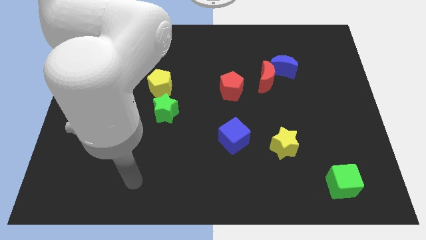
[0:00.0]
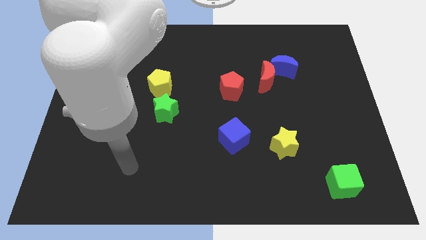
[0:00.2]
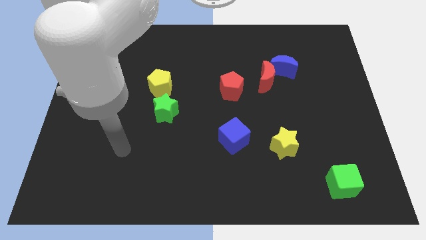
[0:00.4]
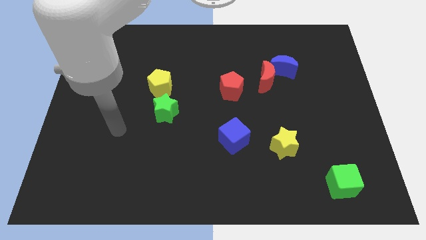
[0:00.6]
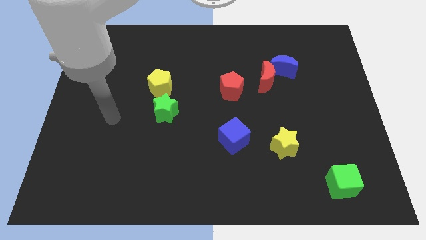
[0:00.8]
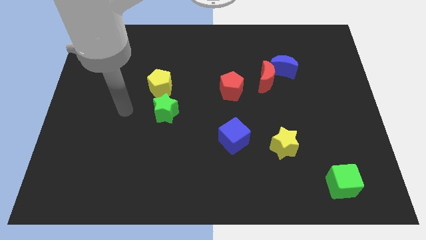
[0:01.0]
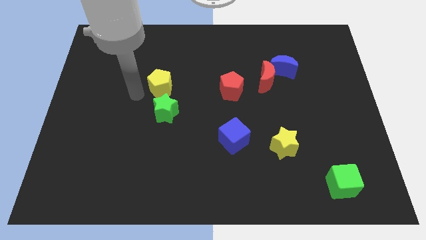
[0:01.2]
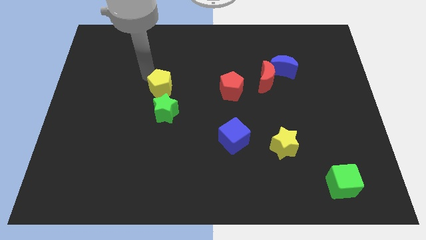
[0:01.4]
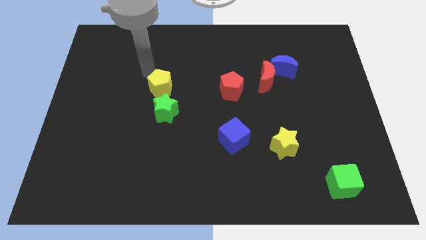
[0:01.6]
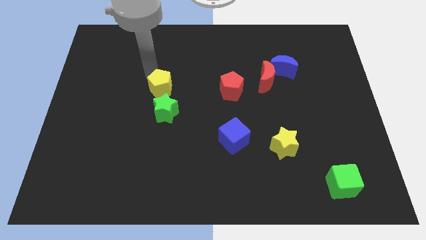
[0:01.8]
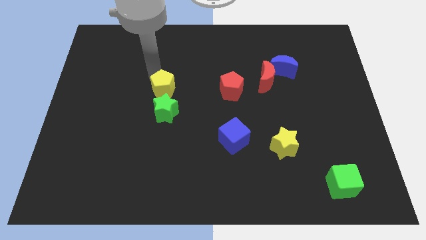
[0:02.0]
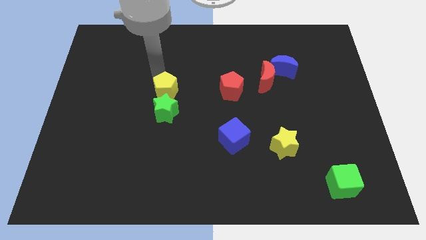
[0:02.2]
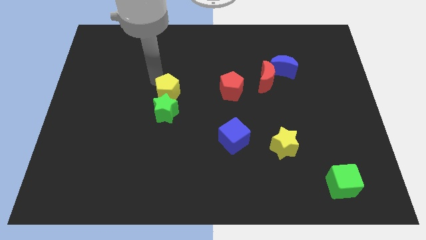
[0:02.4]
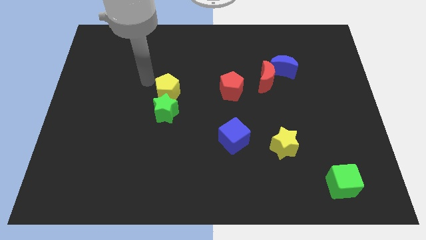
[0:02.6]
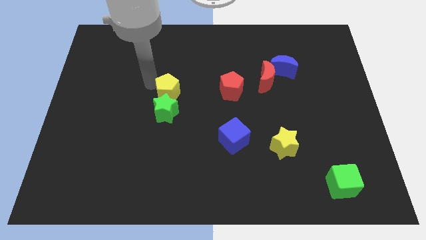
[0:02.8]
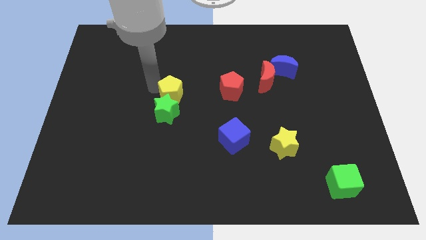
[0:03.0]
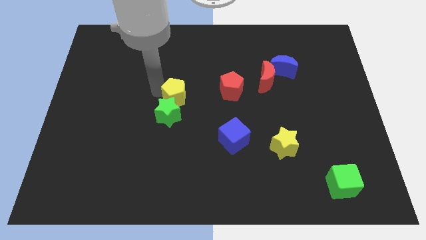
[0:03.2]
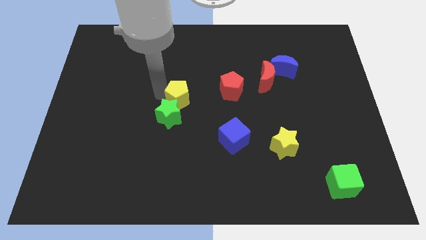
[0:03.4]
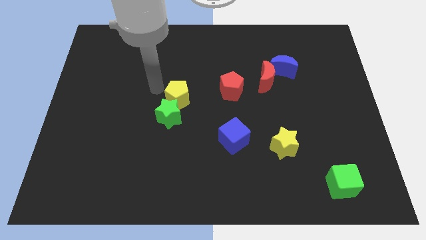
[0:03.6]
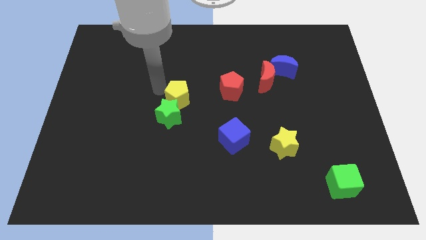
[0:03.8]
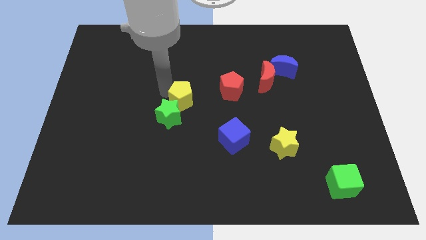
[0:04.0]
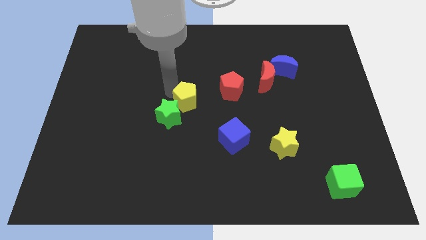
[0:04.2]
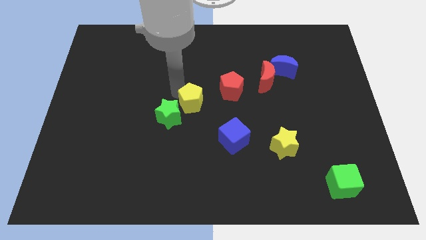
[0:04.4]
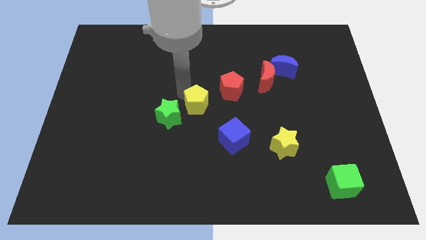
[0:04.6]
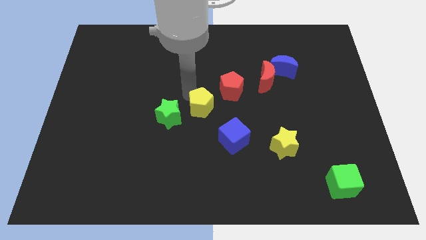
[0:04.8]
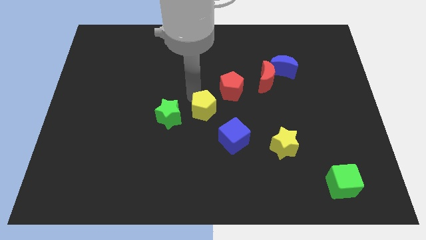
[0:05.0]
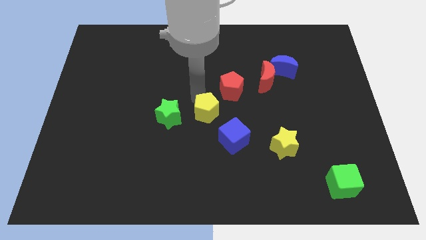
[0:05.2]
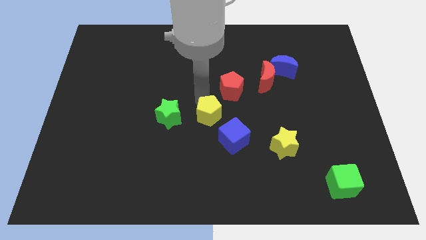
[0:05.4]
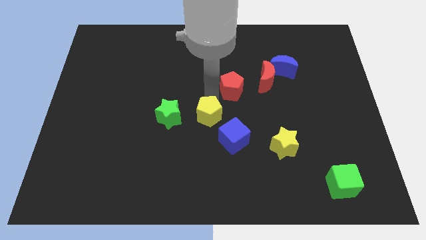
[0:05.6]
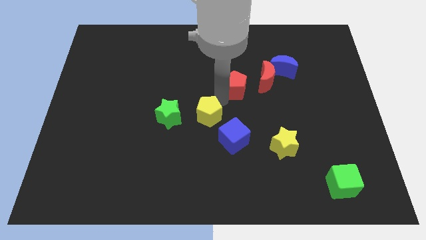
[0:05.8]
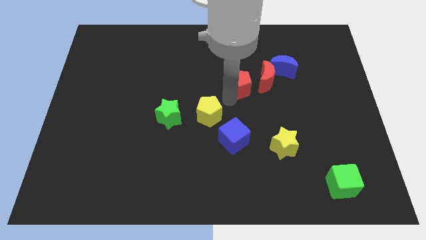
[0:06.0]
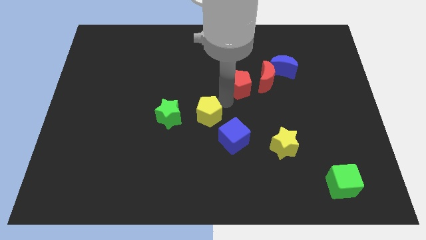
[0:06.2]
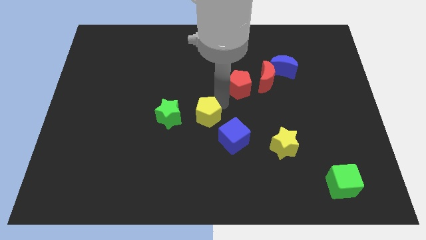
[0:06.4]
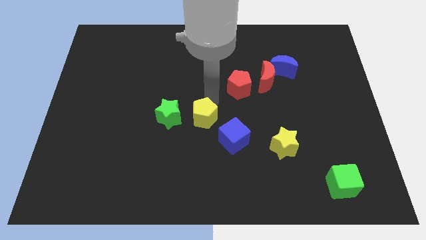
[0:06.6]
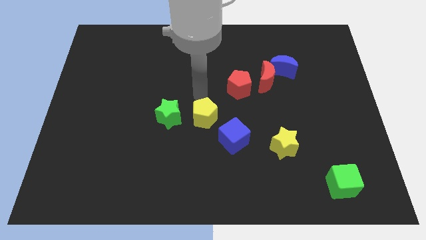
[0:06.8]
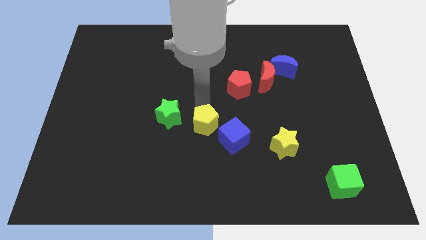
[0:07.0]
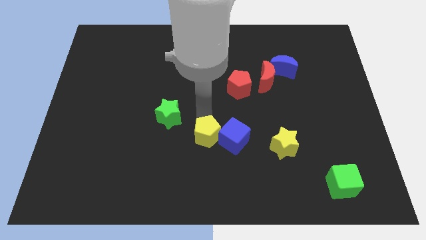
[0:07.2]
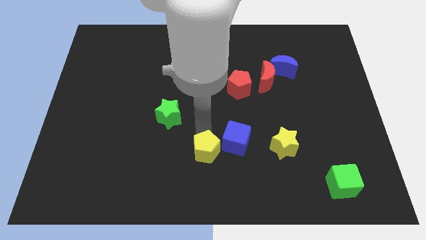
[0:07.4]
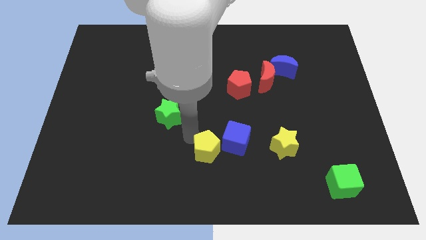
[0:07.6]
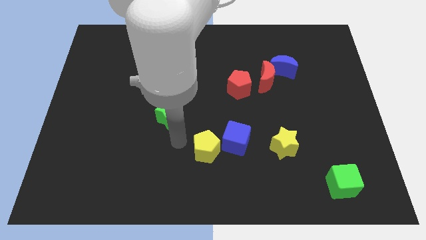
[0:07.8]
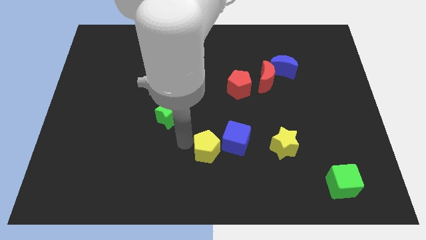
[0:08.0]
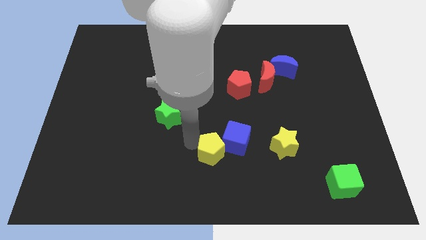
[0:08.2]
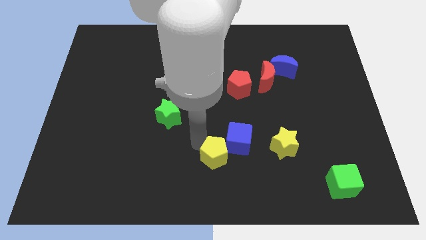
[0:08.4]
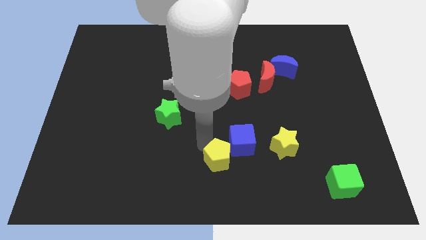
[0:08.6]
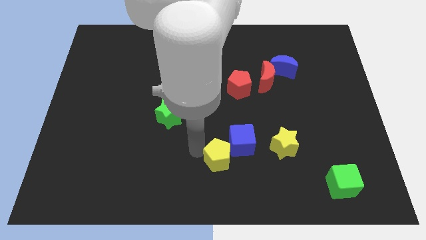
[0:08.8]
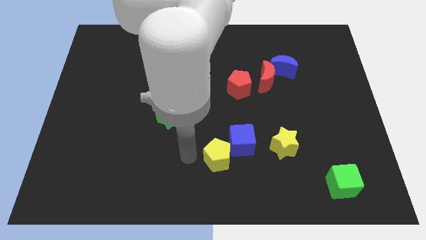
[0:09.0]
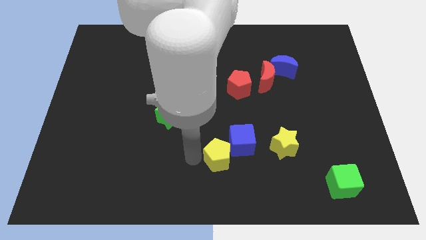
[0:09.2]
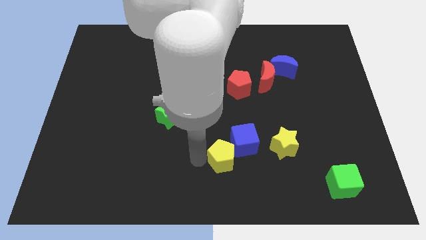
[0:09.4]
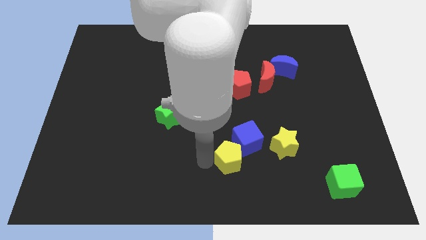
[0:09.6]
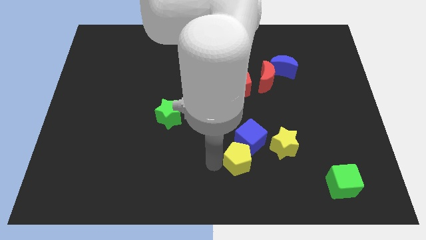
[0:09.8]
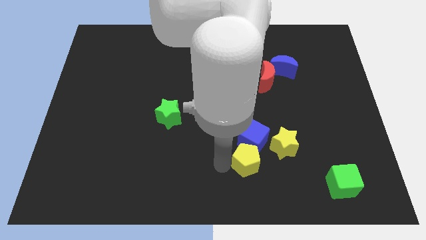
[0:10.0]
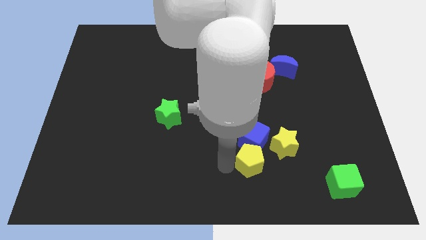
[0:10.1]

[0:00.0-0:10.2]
slide the yellow pentagon to the bottom right side of the blue cube

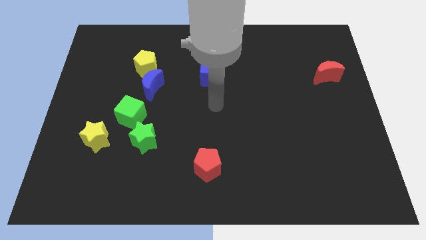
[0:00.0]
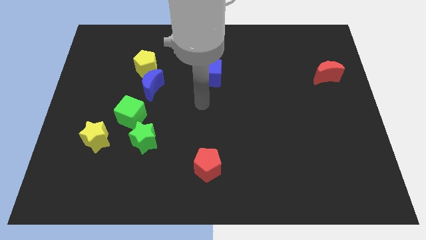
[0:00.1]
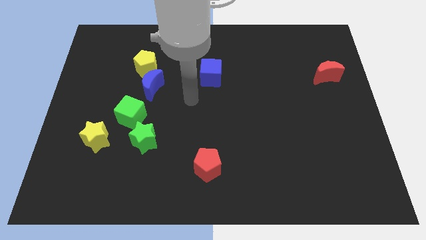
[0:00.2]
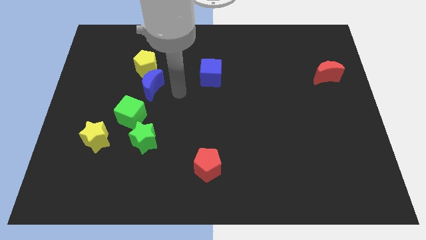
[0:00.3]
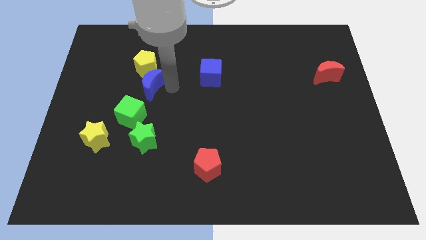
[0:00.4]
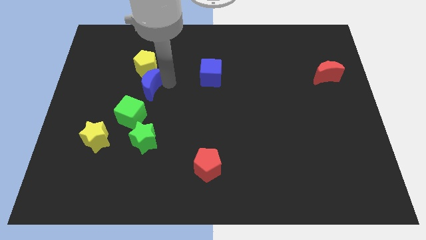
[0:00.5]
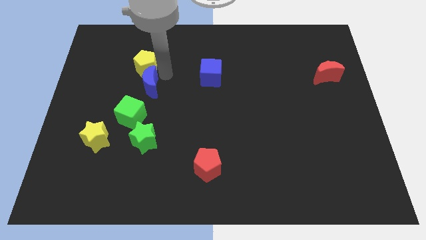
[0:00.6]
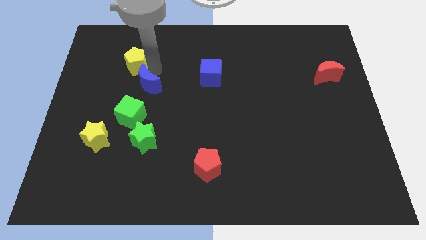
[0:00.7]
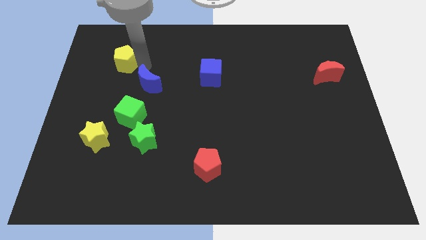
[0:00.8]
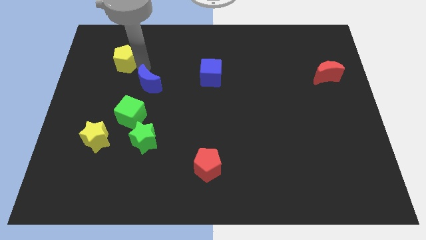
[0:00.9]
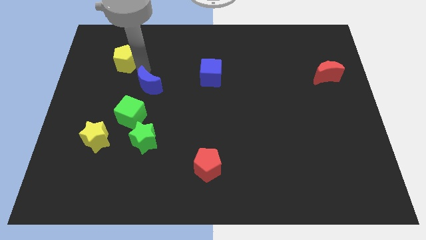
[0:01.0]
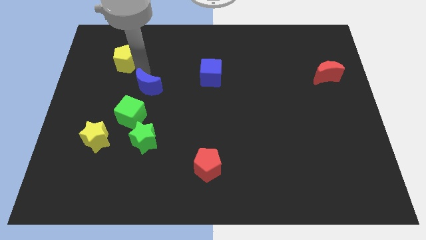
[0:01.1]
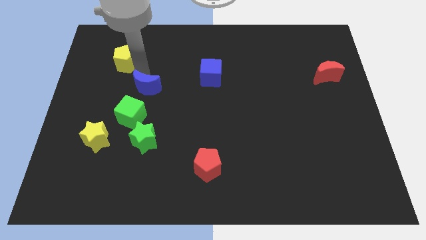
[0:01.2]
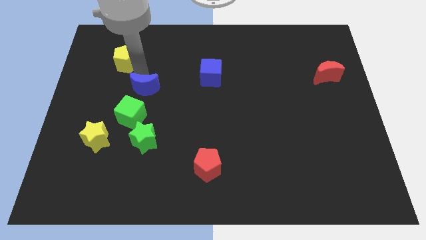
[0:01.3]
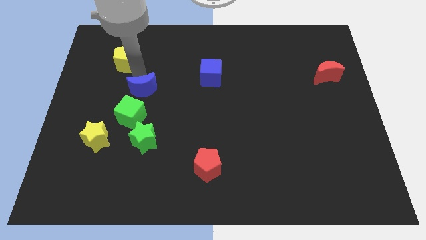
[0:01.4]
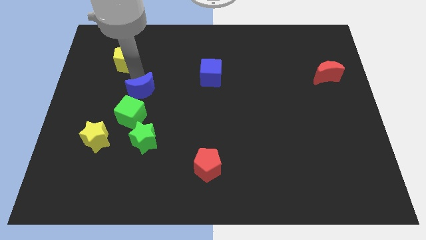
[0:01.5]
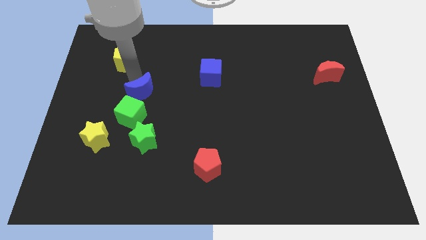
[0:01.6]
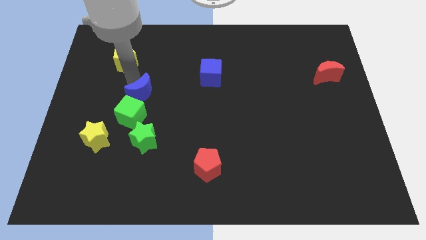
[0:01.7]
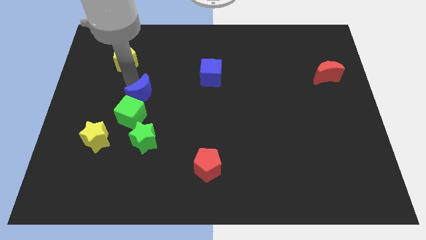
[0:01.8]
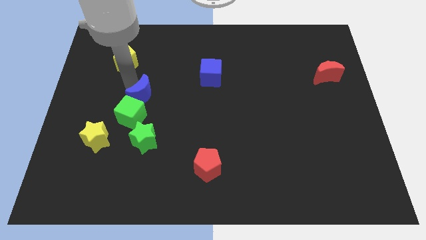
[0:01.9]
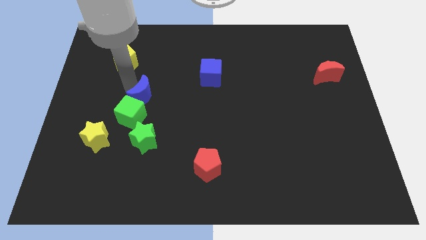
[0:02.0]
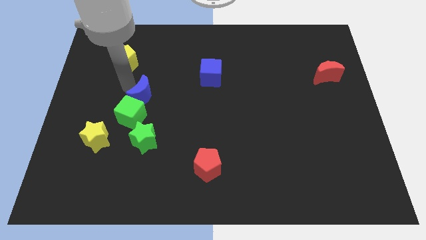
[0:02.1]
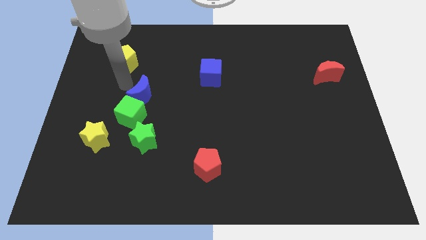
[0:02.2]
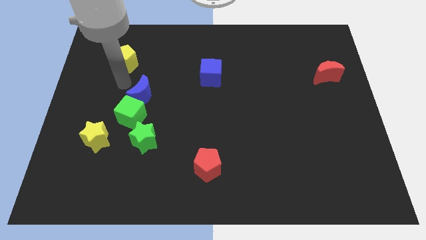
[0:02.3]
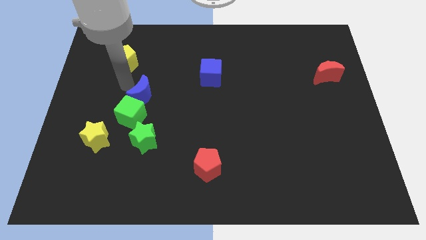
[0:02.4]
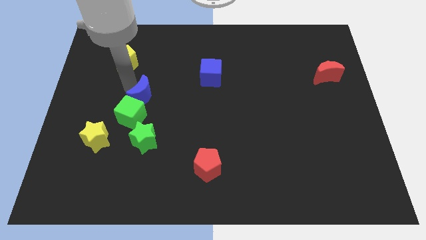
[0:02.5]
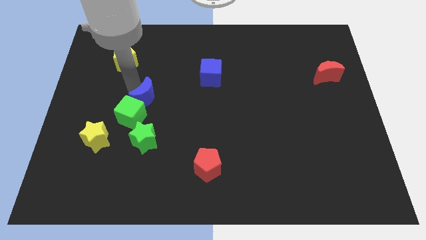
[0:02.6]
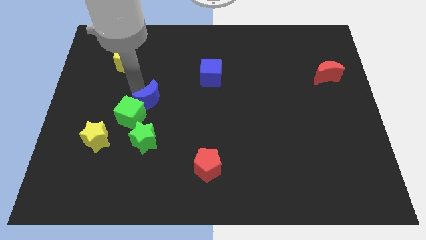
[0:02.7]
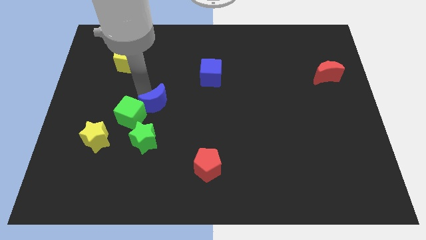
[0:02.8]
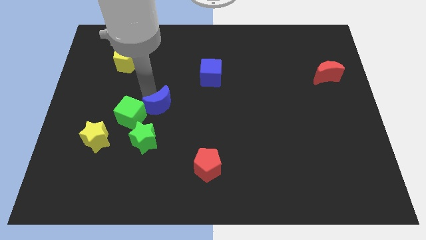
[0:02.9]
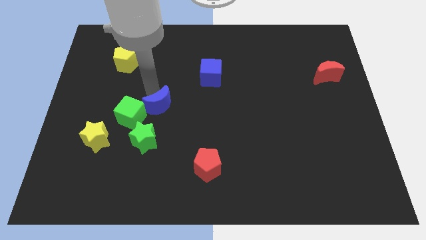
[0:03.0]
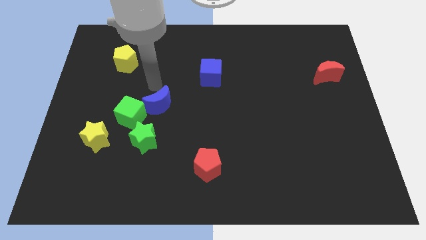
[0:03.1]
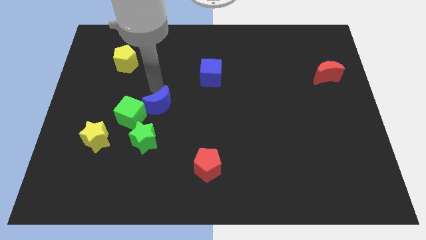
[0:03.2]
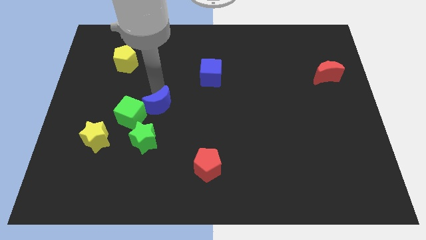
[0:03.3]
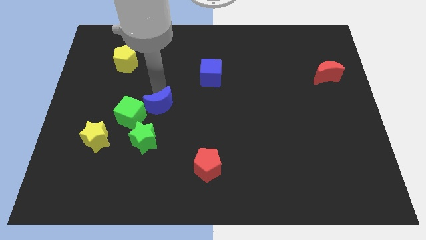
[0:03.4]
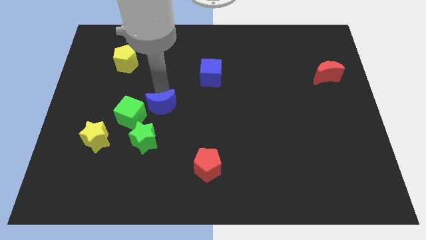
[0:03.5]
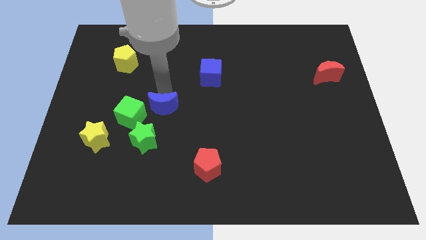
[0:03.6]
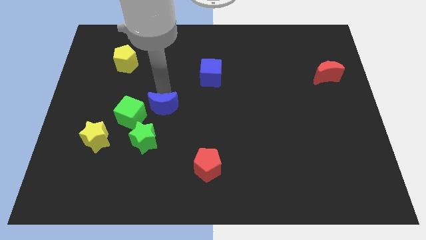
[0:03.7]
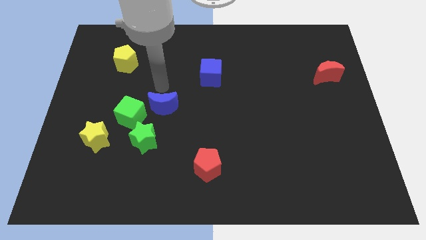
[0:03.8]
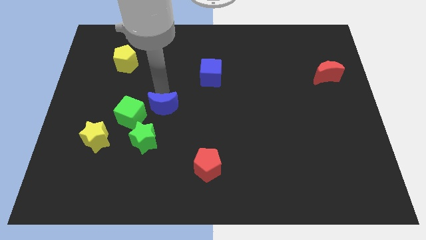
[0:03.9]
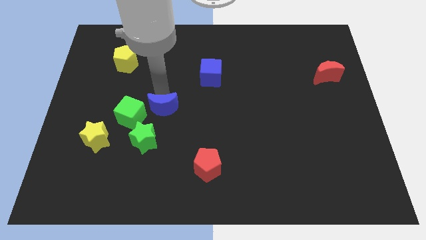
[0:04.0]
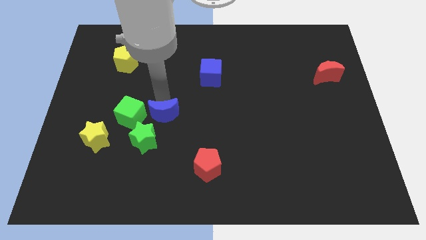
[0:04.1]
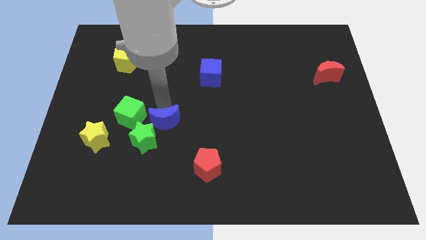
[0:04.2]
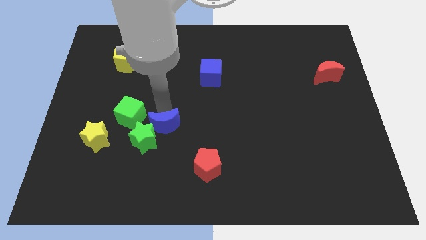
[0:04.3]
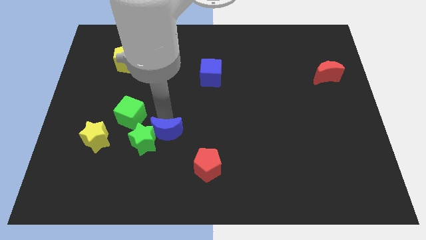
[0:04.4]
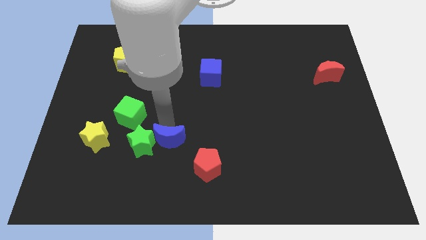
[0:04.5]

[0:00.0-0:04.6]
put the blue moon to the bottom right of the green star
